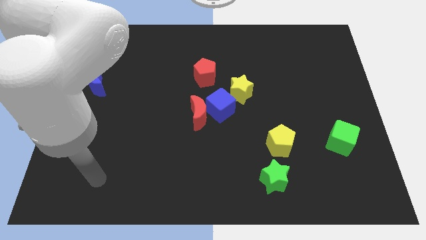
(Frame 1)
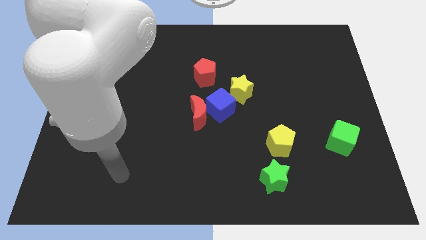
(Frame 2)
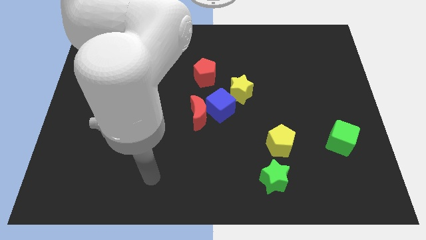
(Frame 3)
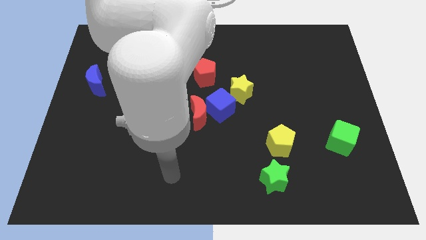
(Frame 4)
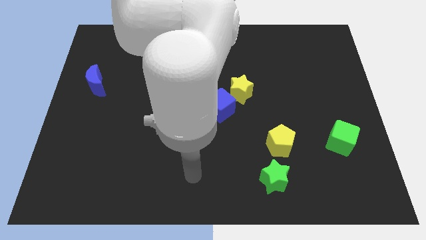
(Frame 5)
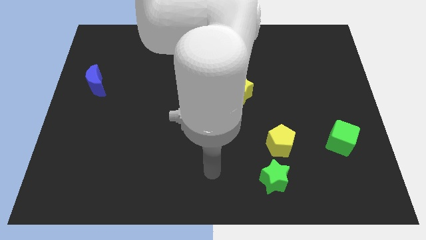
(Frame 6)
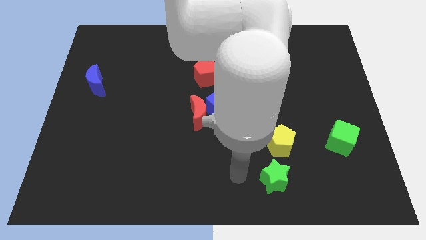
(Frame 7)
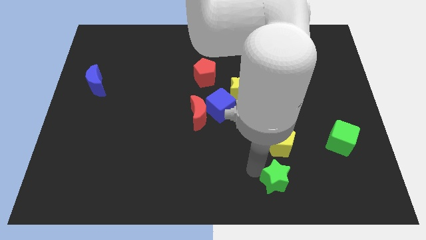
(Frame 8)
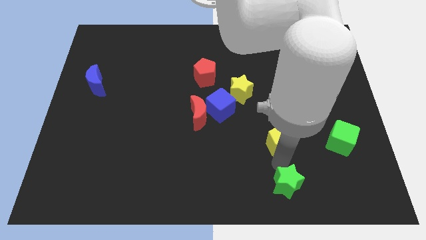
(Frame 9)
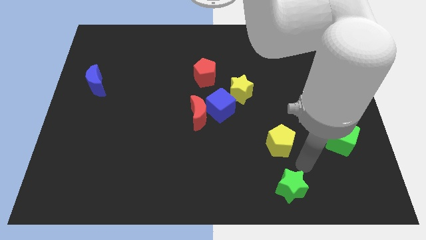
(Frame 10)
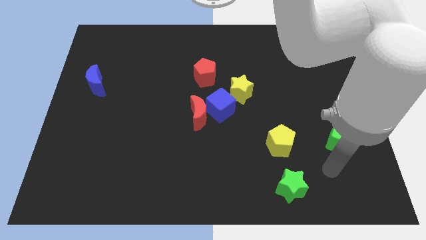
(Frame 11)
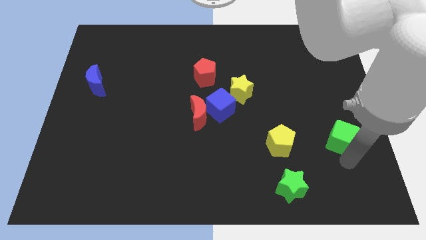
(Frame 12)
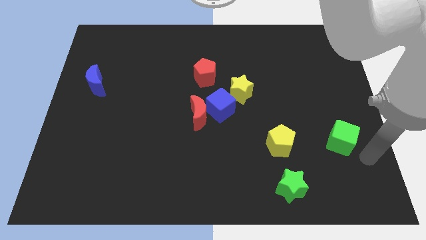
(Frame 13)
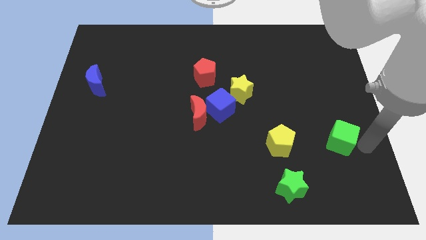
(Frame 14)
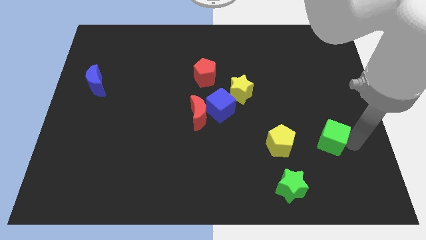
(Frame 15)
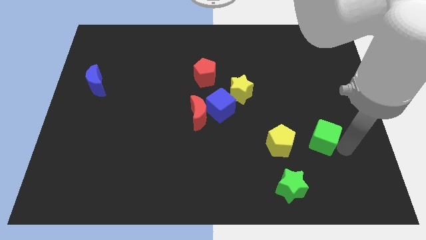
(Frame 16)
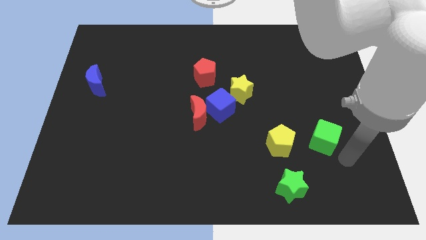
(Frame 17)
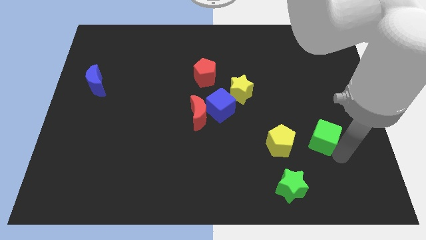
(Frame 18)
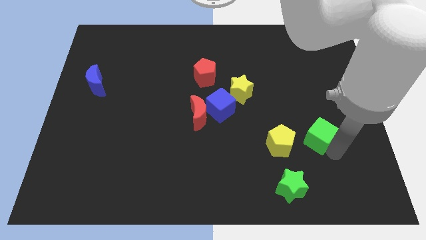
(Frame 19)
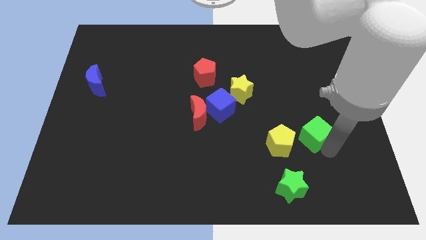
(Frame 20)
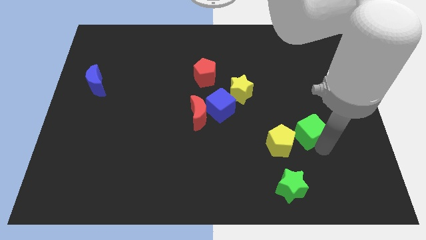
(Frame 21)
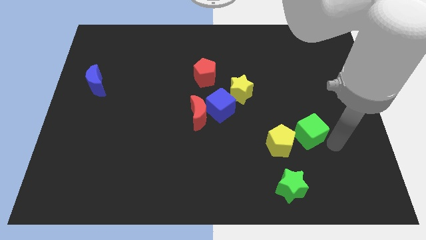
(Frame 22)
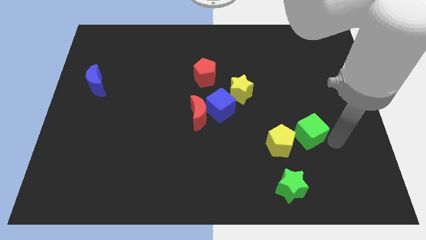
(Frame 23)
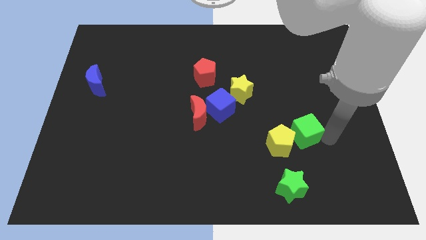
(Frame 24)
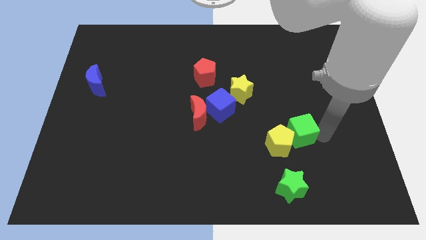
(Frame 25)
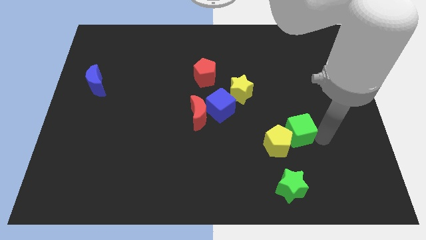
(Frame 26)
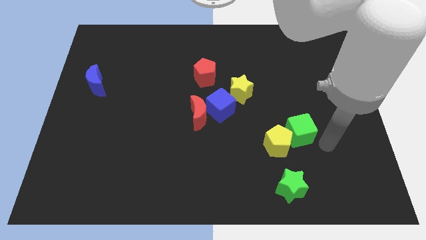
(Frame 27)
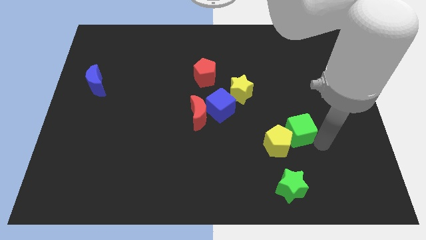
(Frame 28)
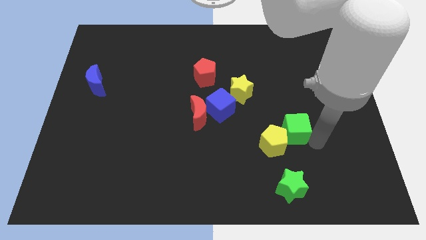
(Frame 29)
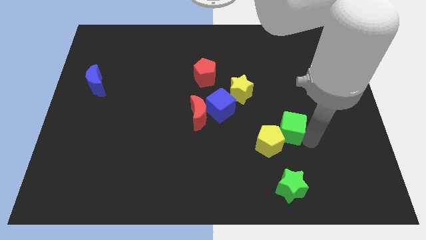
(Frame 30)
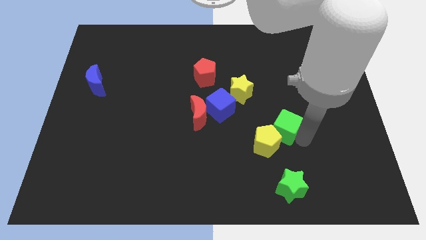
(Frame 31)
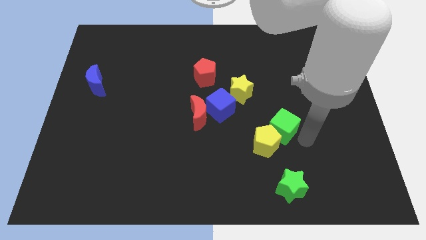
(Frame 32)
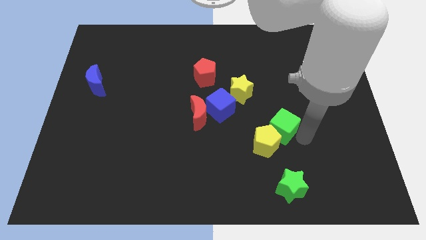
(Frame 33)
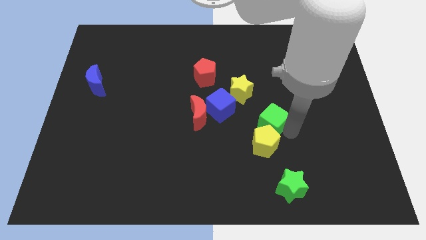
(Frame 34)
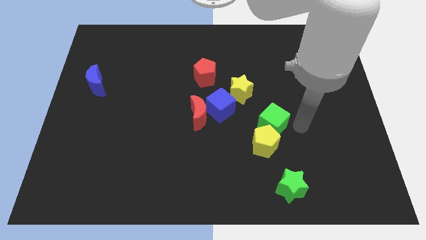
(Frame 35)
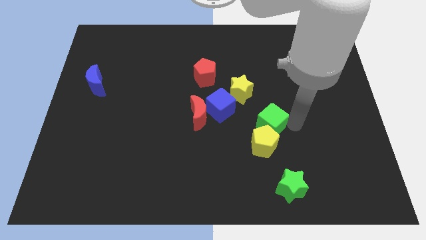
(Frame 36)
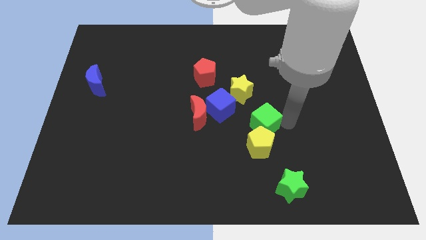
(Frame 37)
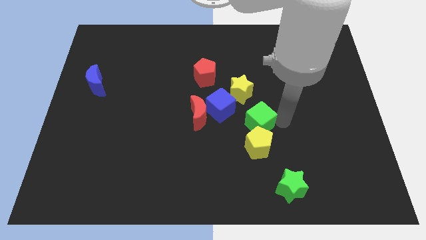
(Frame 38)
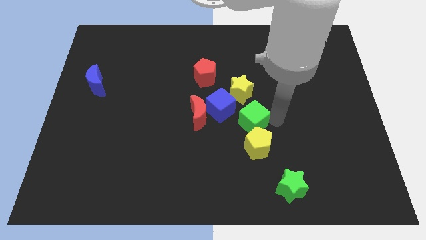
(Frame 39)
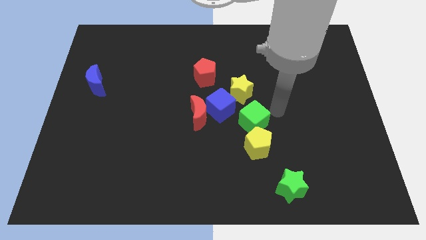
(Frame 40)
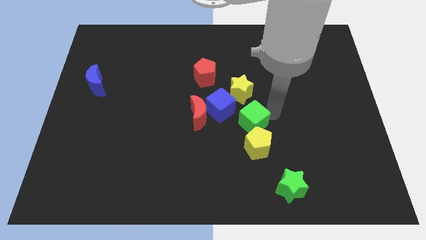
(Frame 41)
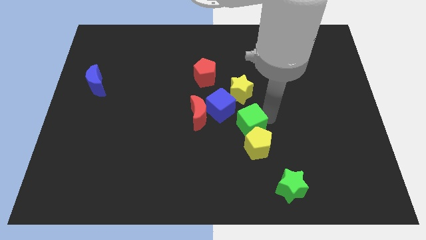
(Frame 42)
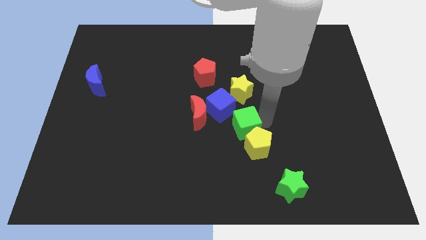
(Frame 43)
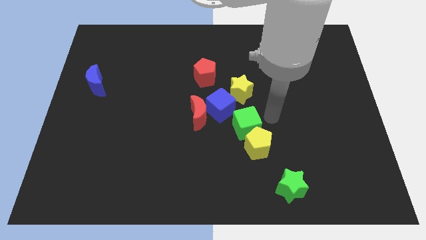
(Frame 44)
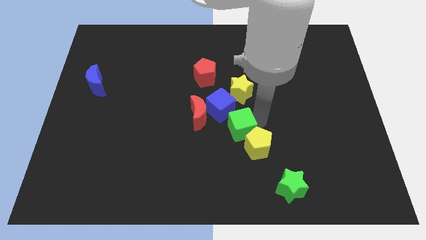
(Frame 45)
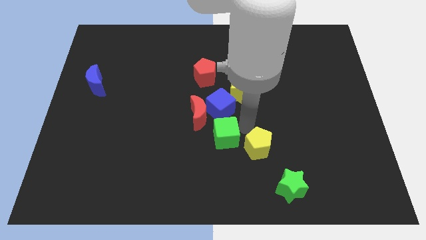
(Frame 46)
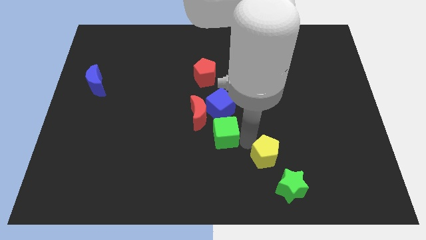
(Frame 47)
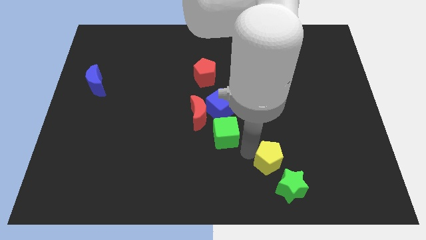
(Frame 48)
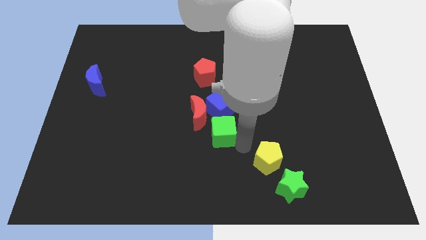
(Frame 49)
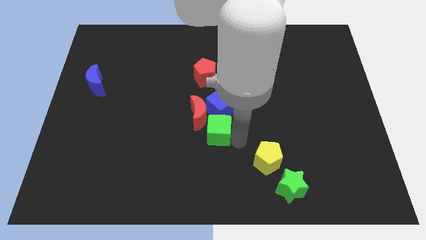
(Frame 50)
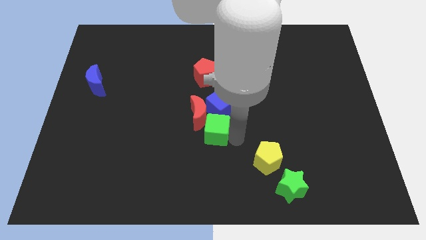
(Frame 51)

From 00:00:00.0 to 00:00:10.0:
move the green cube to the red moon

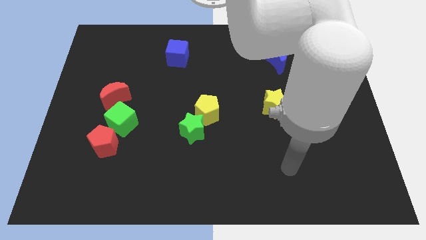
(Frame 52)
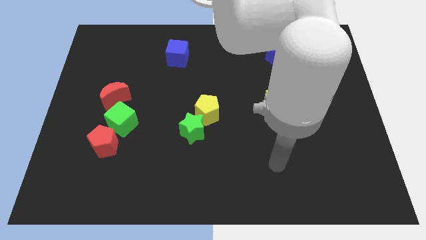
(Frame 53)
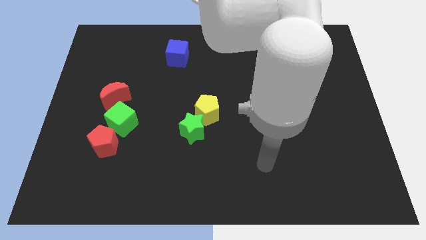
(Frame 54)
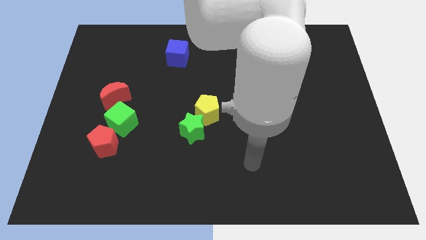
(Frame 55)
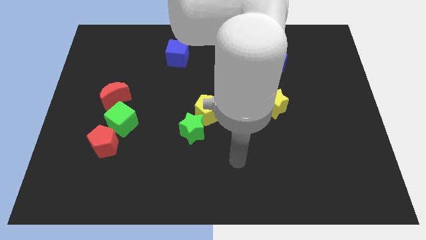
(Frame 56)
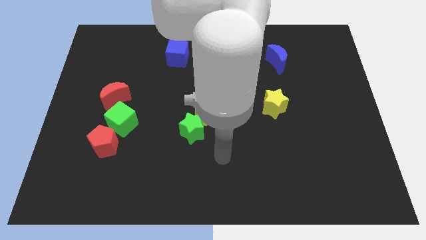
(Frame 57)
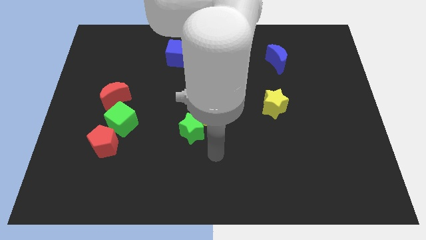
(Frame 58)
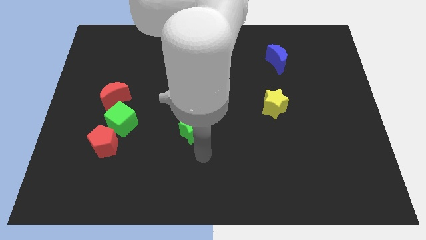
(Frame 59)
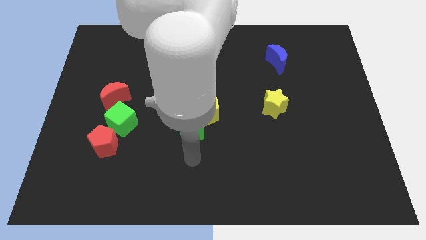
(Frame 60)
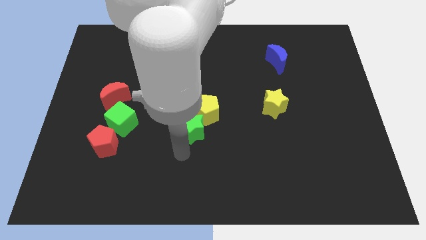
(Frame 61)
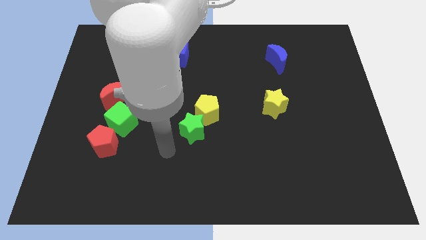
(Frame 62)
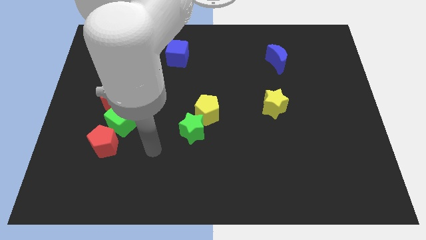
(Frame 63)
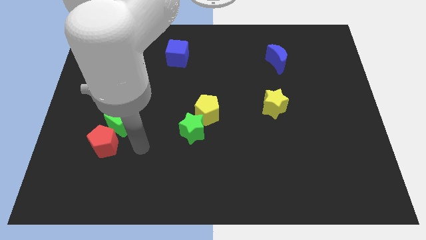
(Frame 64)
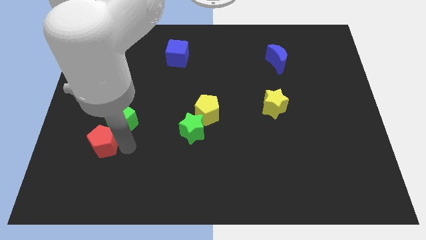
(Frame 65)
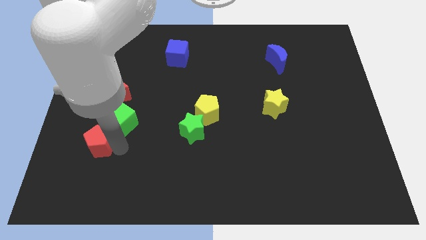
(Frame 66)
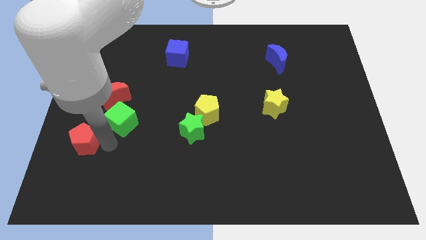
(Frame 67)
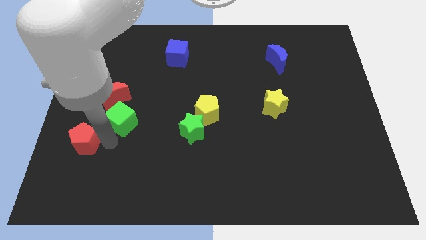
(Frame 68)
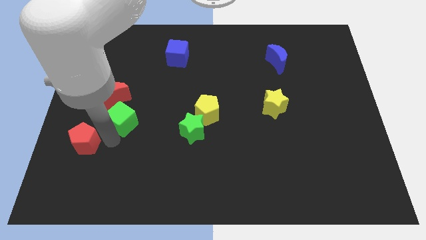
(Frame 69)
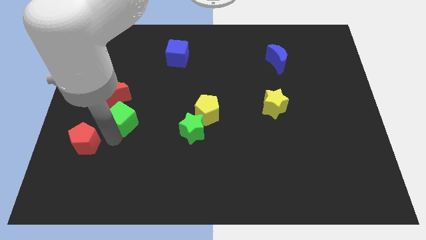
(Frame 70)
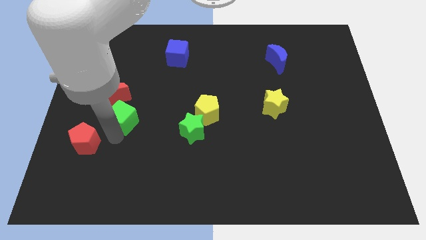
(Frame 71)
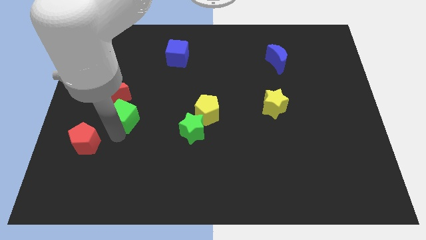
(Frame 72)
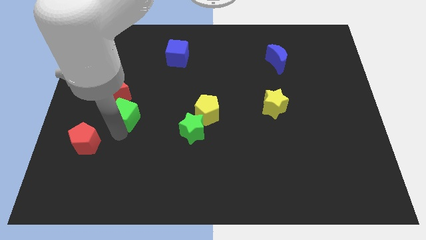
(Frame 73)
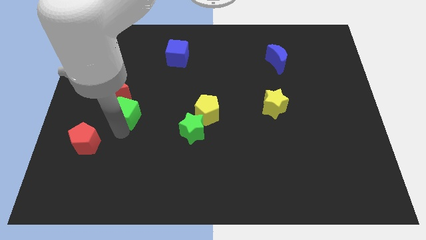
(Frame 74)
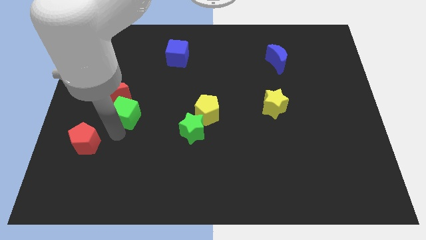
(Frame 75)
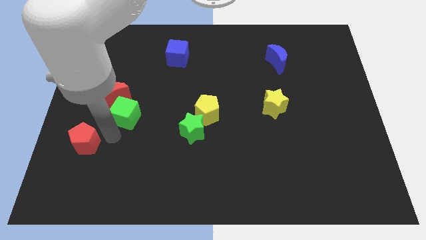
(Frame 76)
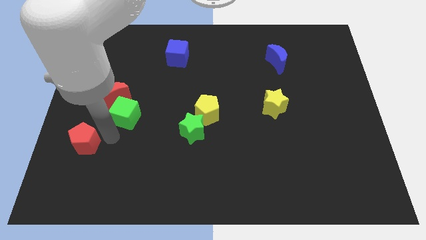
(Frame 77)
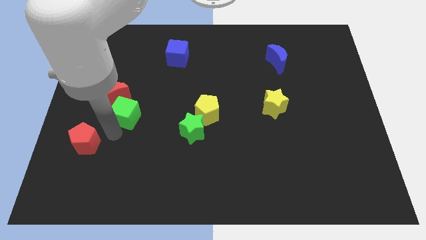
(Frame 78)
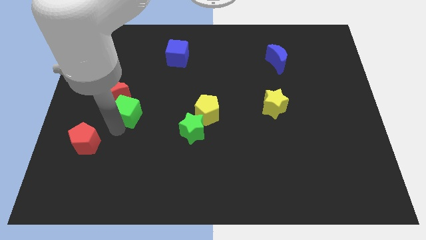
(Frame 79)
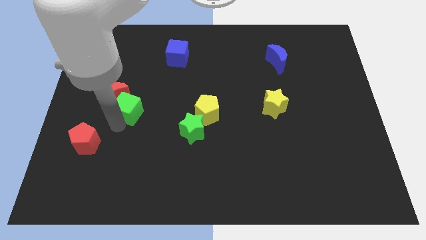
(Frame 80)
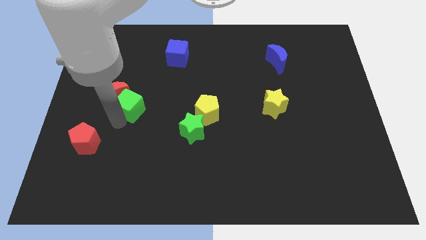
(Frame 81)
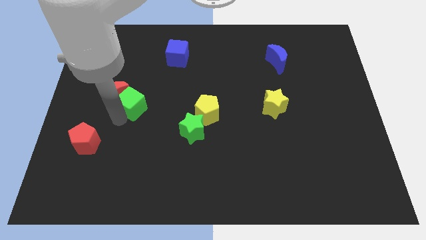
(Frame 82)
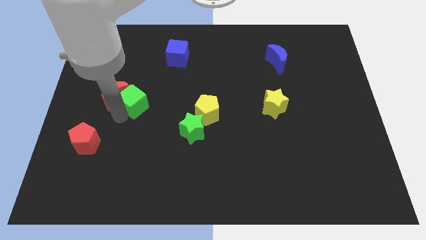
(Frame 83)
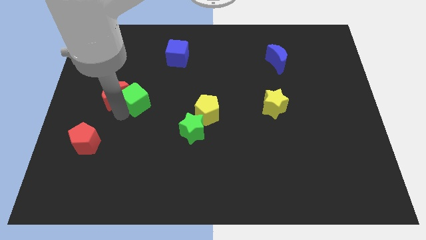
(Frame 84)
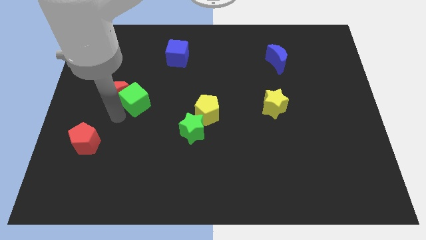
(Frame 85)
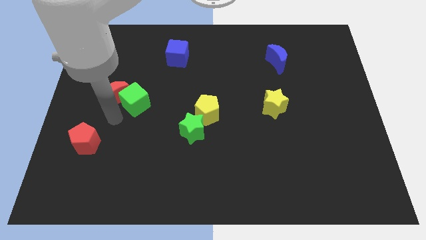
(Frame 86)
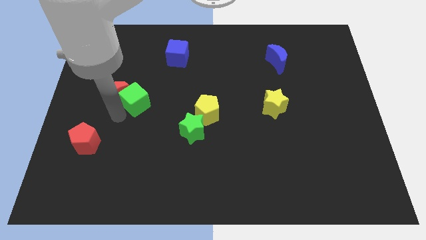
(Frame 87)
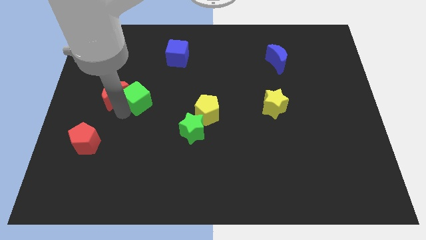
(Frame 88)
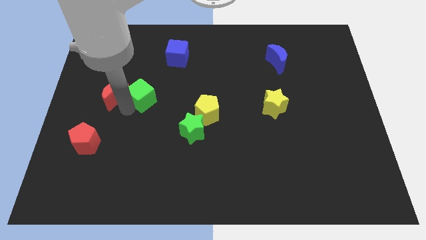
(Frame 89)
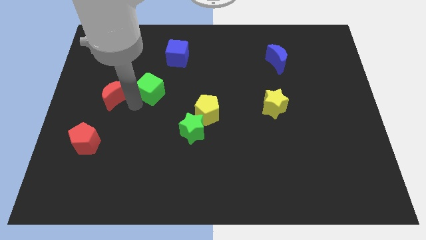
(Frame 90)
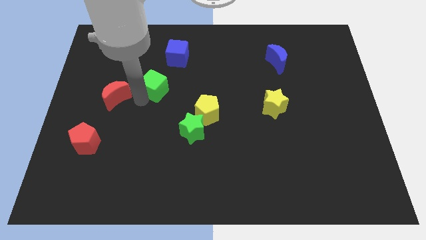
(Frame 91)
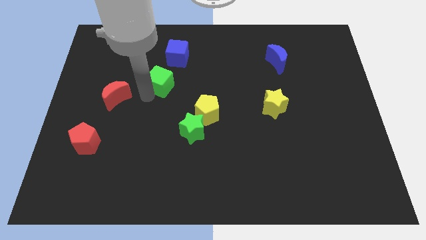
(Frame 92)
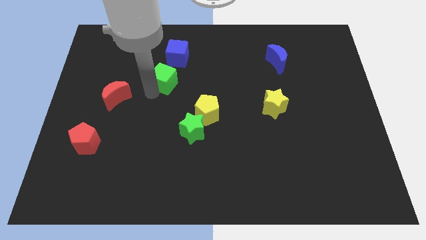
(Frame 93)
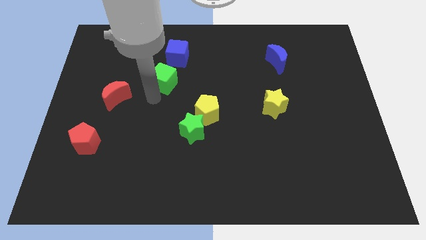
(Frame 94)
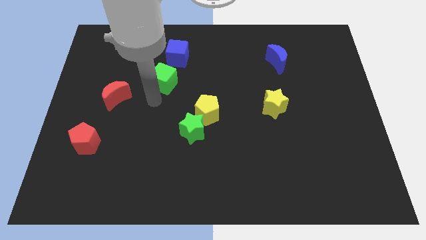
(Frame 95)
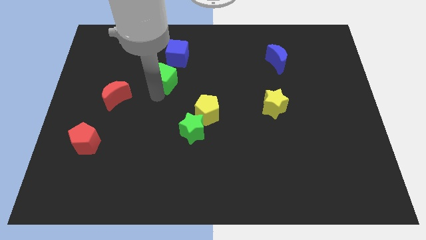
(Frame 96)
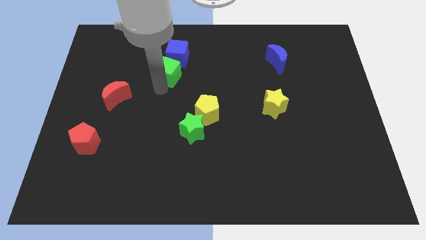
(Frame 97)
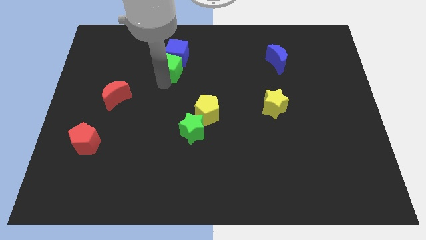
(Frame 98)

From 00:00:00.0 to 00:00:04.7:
slide the green cube towards the blue cube
